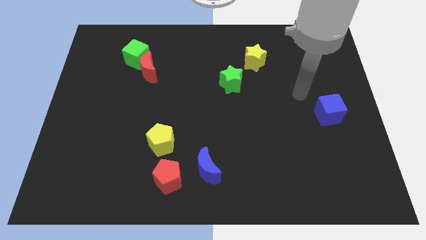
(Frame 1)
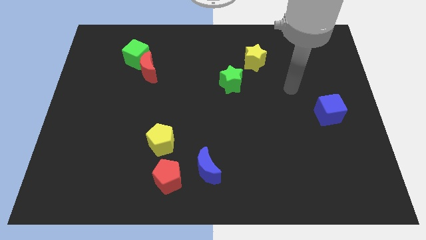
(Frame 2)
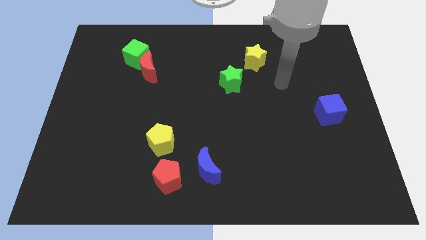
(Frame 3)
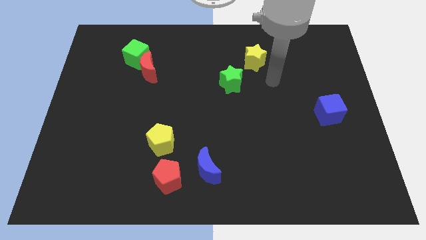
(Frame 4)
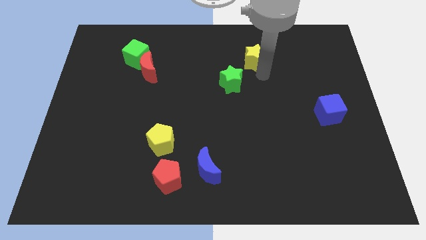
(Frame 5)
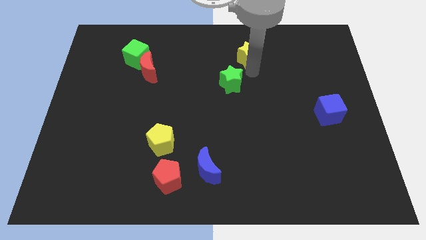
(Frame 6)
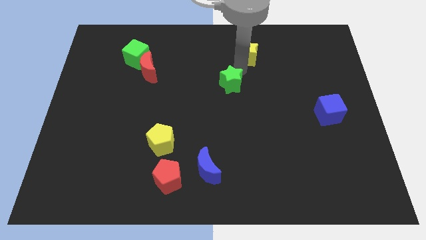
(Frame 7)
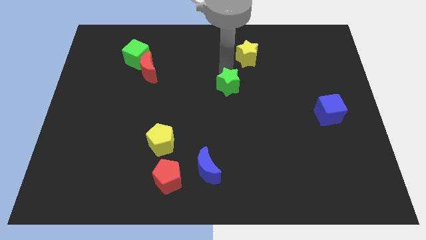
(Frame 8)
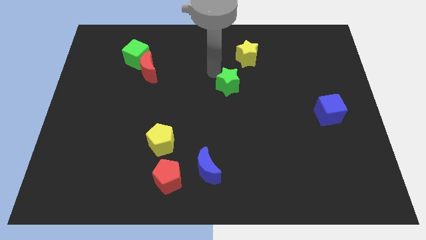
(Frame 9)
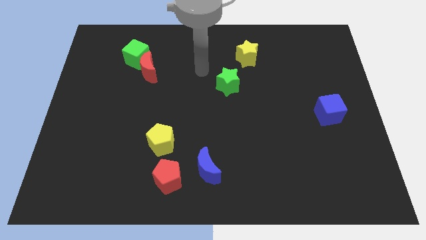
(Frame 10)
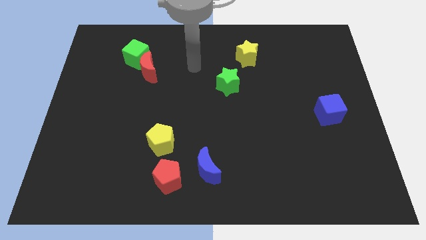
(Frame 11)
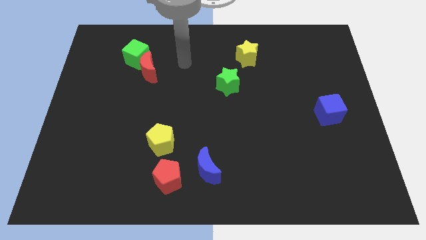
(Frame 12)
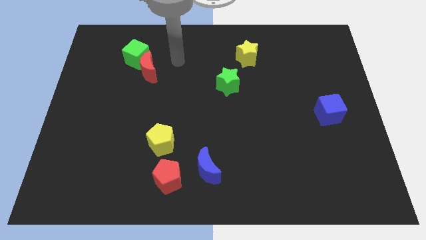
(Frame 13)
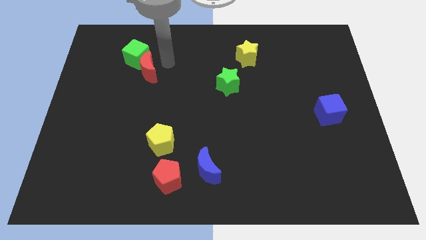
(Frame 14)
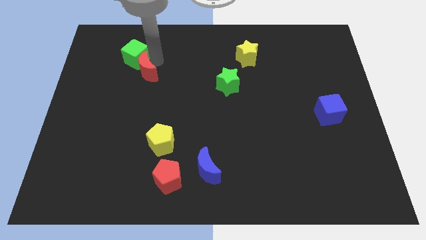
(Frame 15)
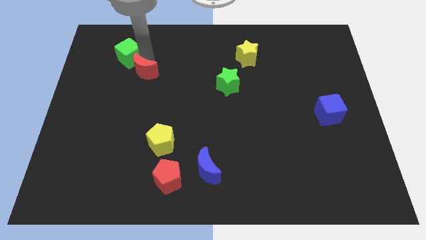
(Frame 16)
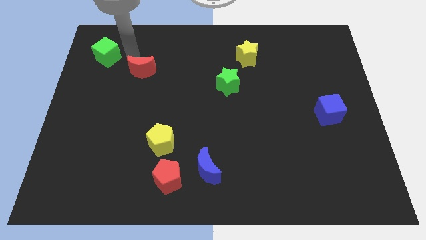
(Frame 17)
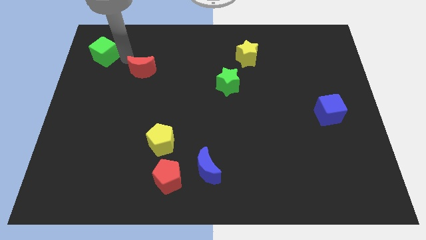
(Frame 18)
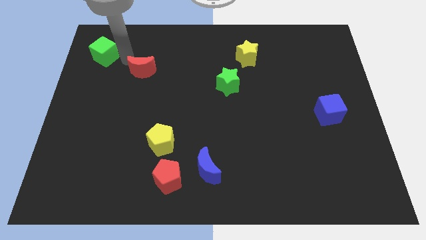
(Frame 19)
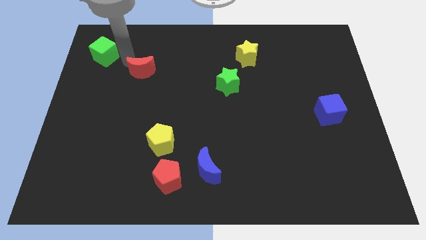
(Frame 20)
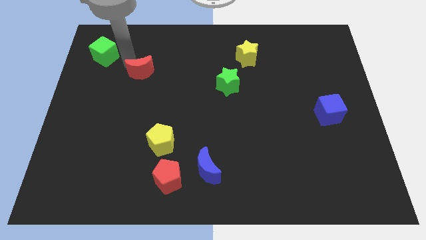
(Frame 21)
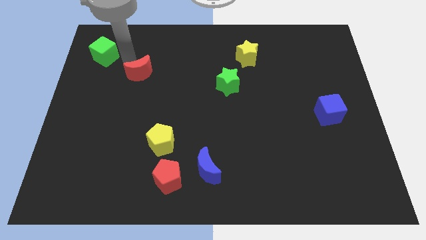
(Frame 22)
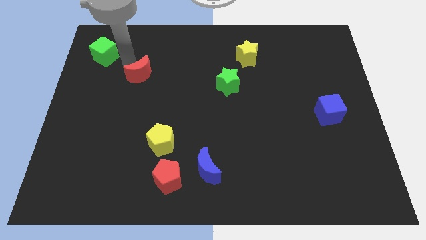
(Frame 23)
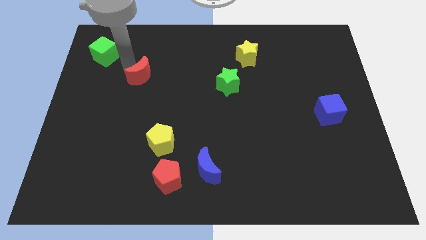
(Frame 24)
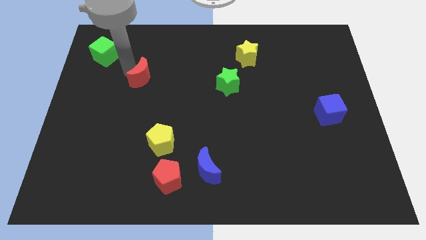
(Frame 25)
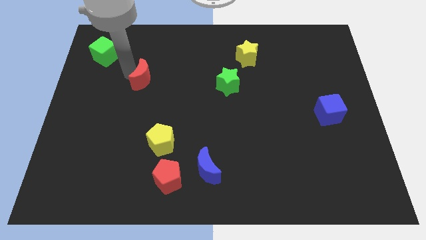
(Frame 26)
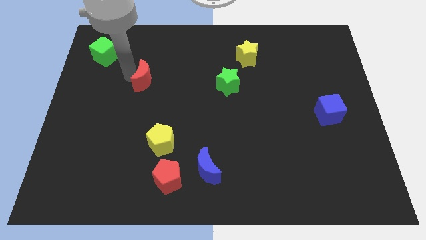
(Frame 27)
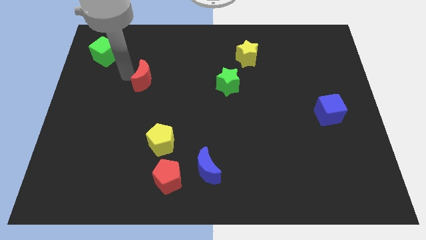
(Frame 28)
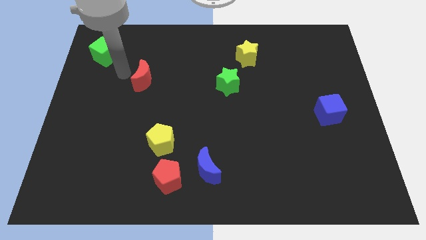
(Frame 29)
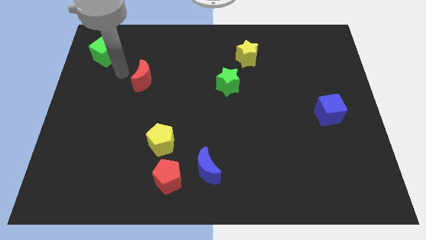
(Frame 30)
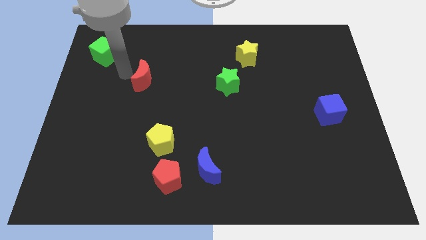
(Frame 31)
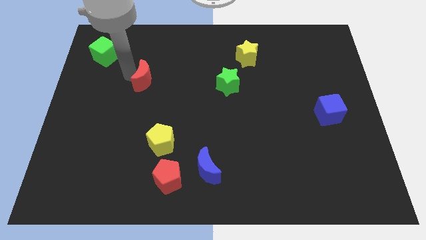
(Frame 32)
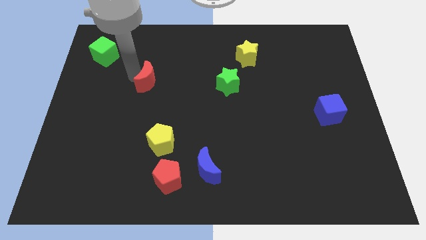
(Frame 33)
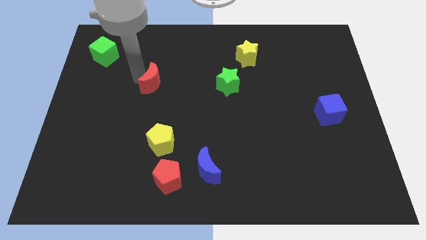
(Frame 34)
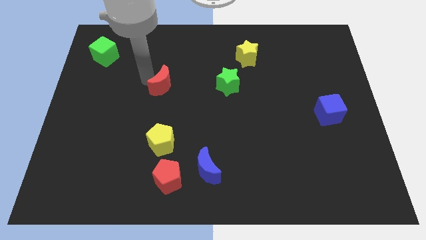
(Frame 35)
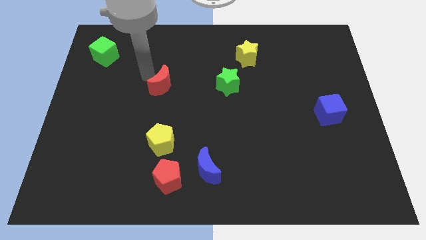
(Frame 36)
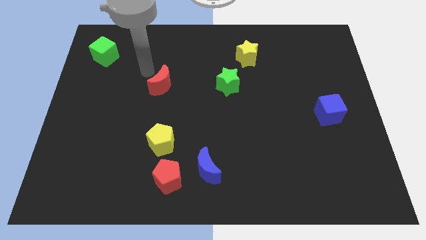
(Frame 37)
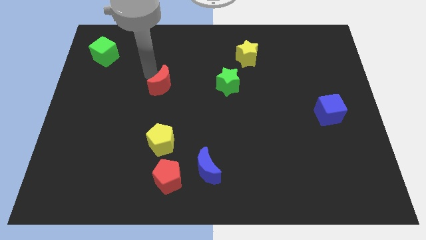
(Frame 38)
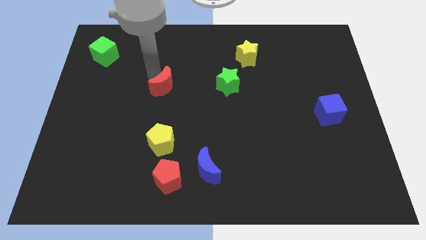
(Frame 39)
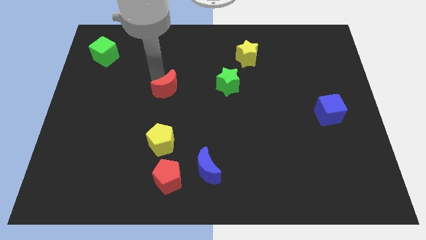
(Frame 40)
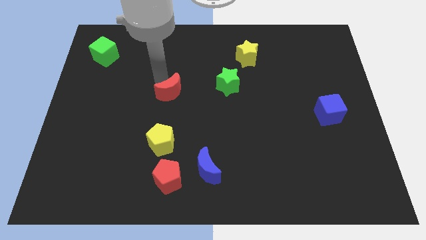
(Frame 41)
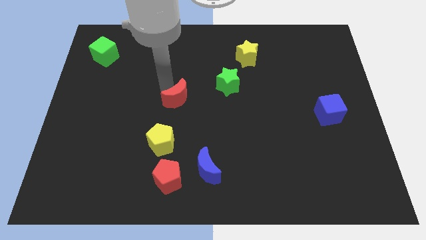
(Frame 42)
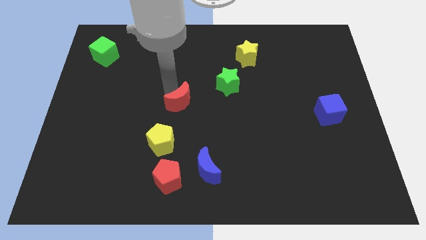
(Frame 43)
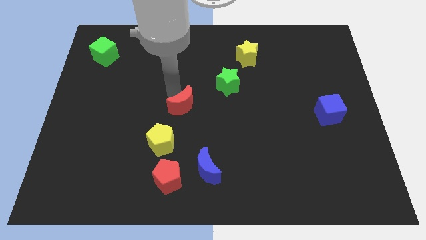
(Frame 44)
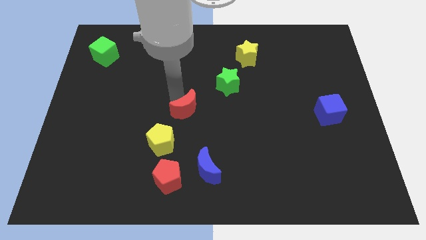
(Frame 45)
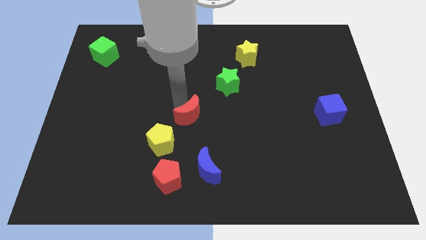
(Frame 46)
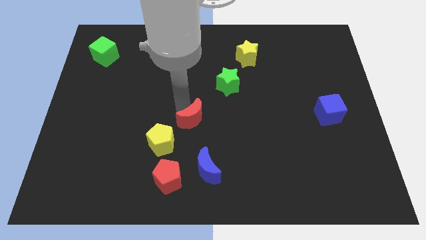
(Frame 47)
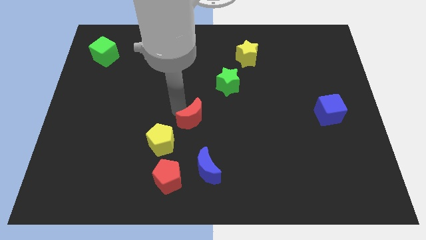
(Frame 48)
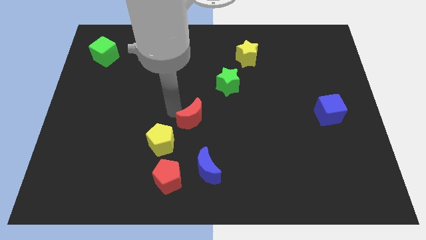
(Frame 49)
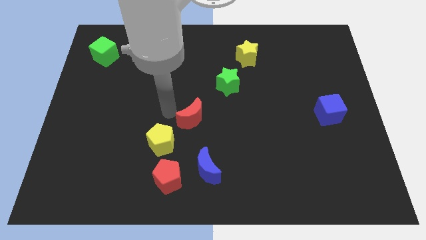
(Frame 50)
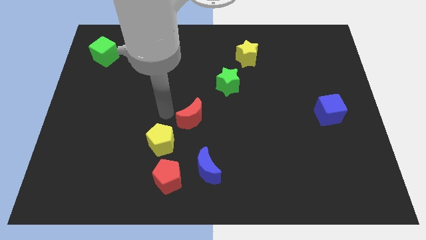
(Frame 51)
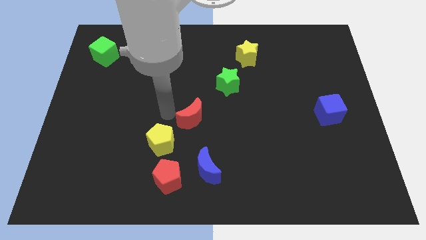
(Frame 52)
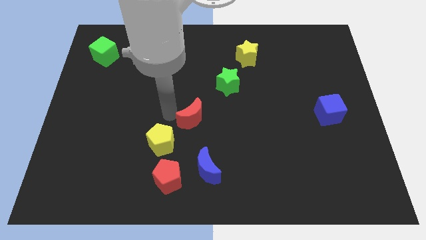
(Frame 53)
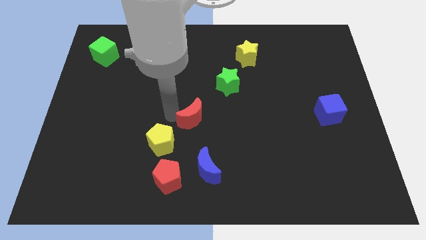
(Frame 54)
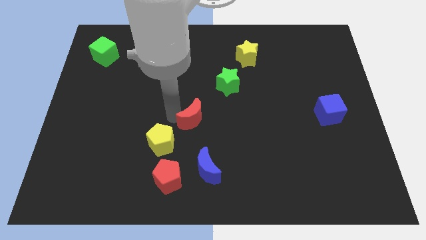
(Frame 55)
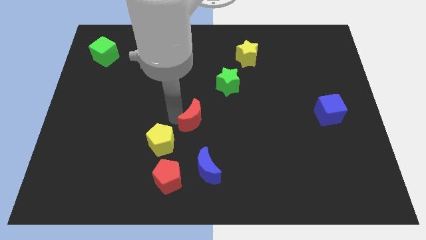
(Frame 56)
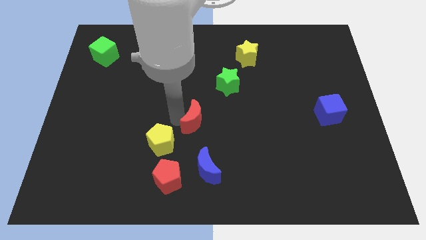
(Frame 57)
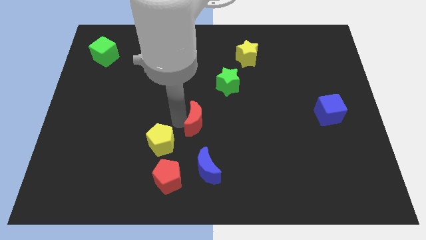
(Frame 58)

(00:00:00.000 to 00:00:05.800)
slide the red moon downwards and right diagonally

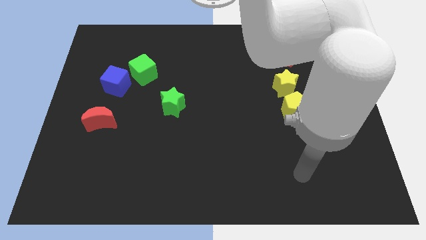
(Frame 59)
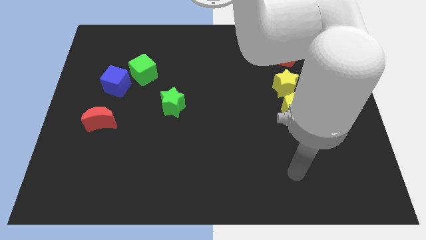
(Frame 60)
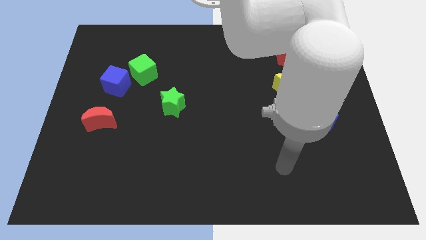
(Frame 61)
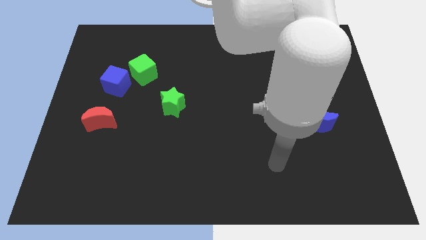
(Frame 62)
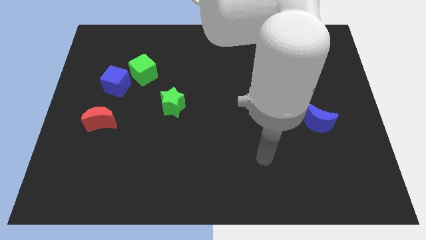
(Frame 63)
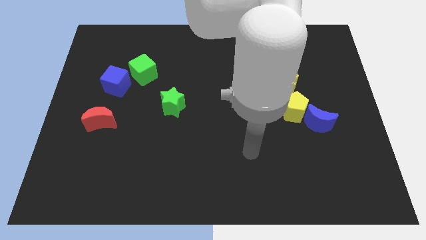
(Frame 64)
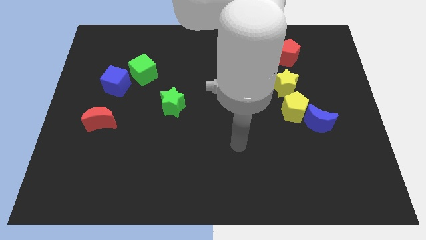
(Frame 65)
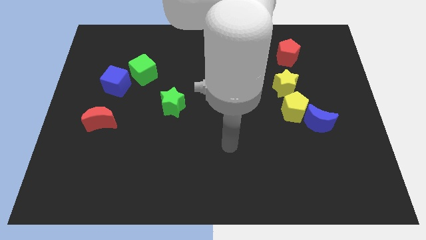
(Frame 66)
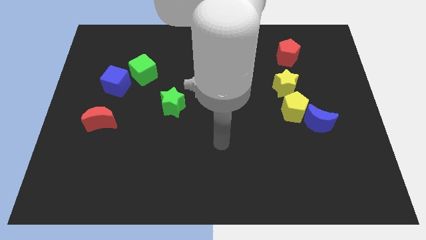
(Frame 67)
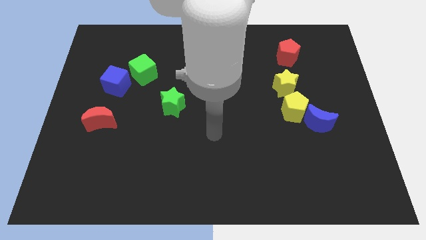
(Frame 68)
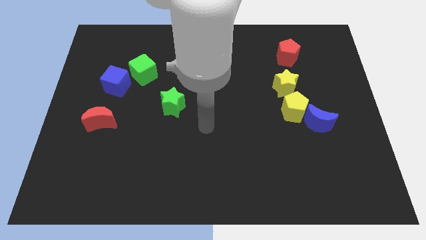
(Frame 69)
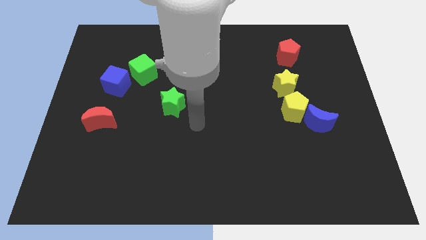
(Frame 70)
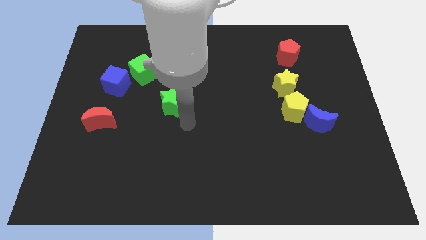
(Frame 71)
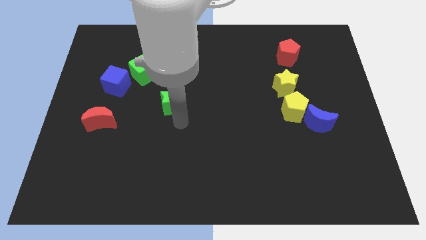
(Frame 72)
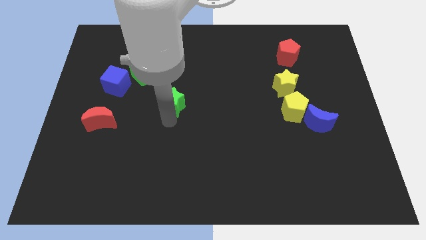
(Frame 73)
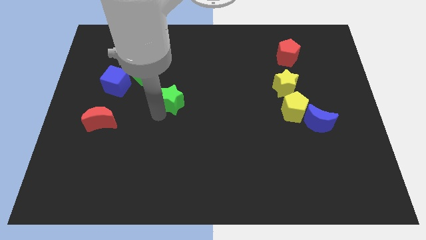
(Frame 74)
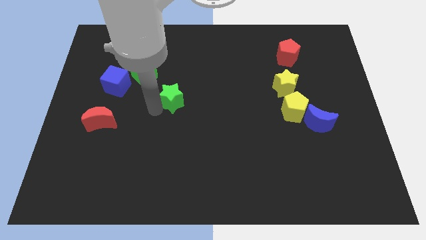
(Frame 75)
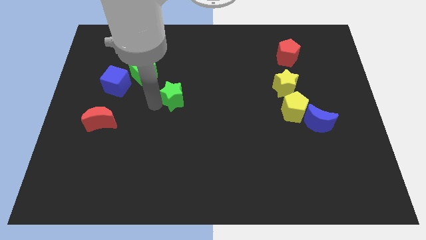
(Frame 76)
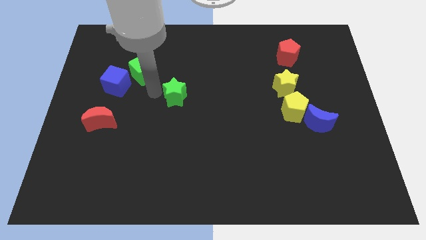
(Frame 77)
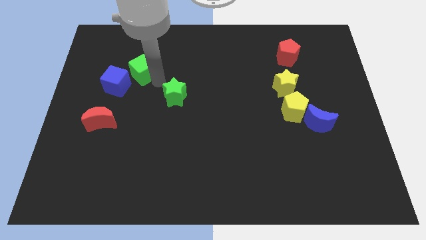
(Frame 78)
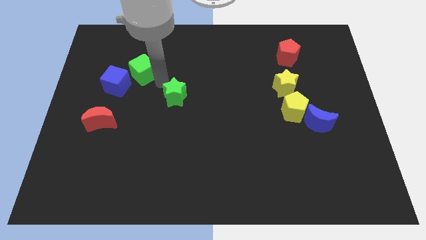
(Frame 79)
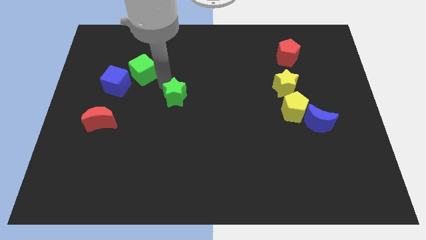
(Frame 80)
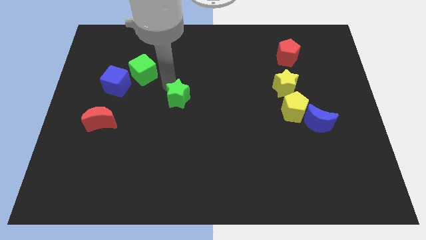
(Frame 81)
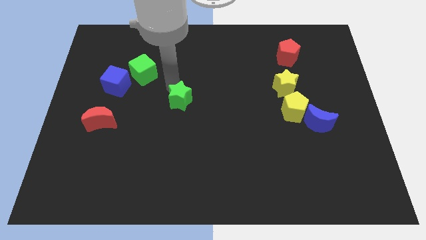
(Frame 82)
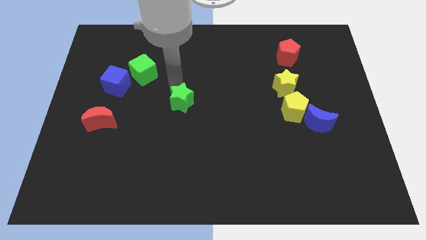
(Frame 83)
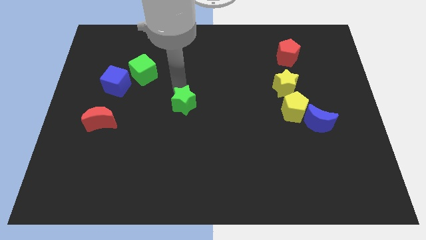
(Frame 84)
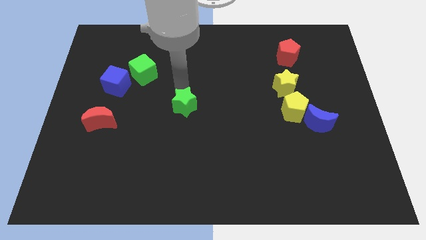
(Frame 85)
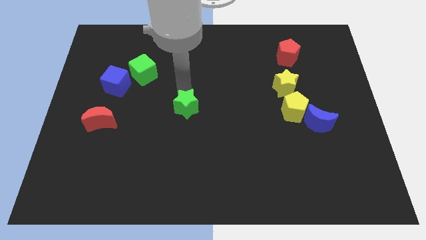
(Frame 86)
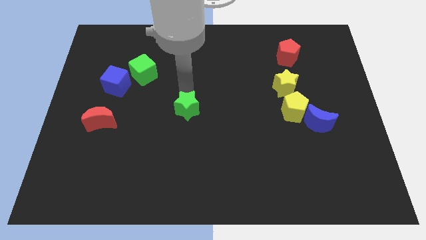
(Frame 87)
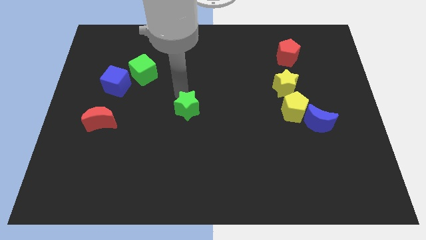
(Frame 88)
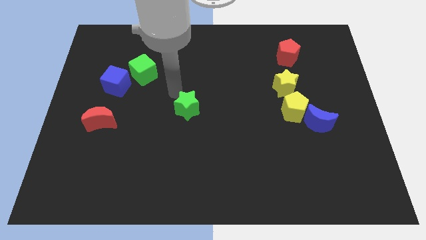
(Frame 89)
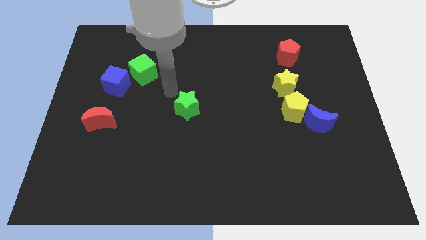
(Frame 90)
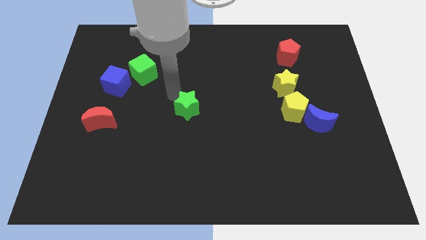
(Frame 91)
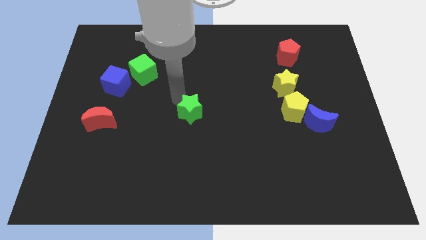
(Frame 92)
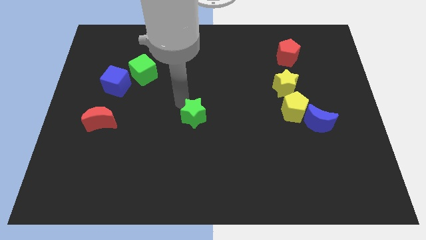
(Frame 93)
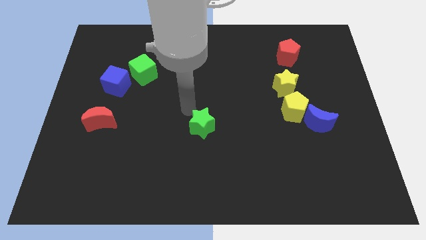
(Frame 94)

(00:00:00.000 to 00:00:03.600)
slightly slide the green star down and to the right diagonally
